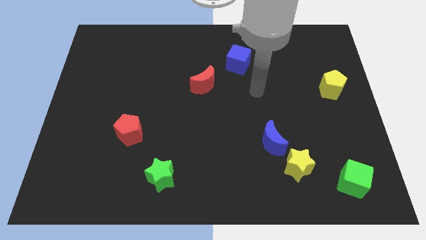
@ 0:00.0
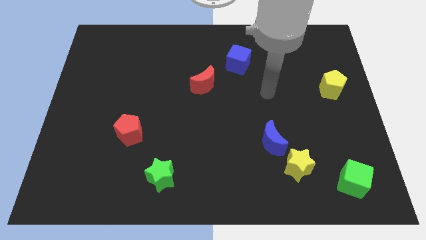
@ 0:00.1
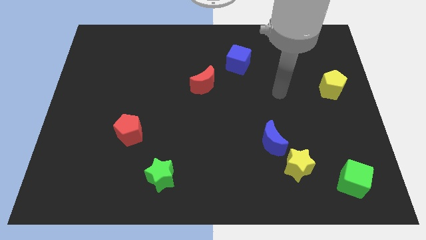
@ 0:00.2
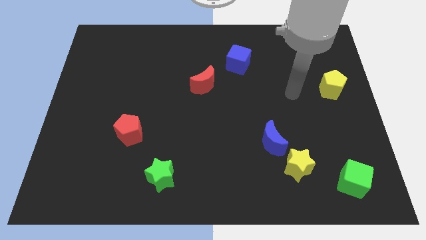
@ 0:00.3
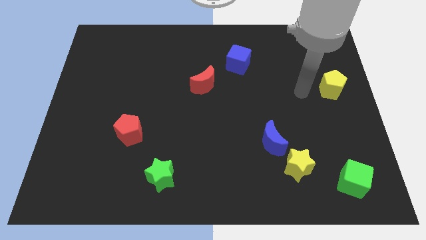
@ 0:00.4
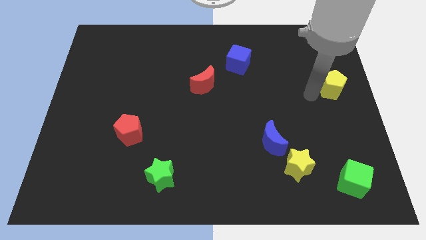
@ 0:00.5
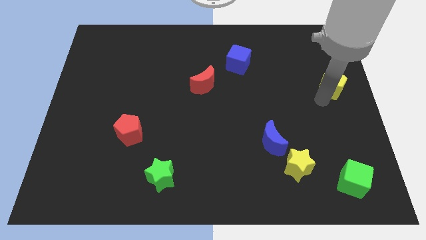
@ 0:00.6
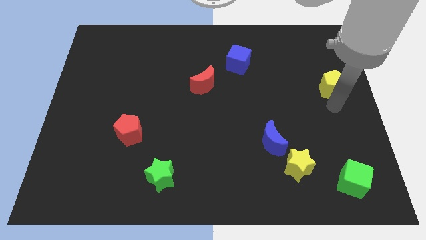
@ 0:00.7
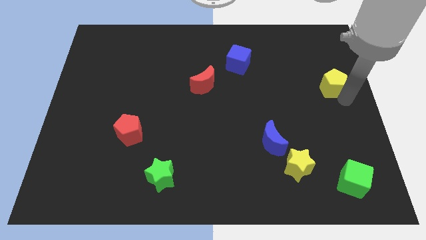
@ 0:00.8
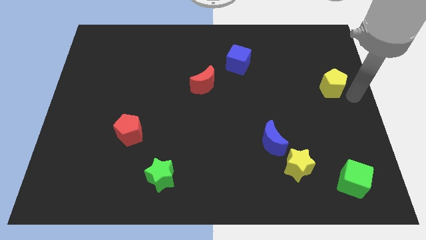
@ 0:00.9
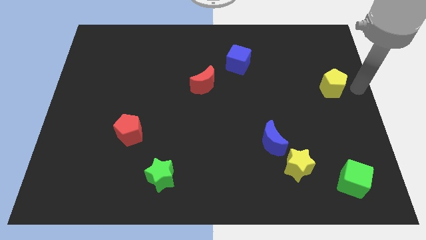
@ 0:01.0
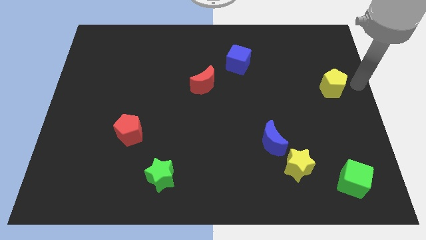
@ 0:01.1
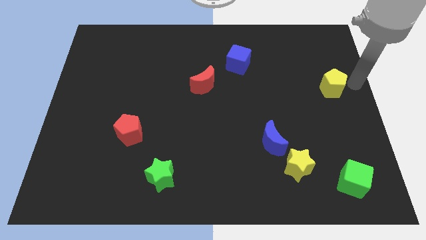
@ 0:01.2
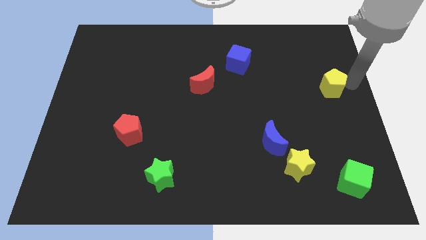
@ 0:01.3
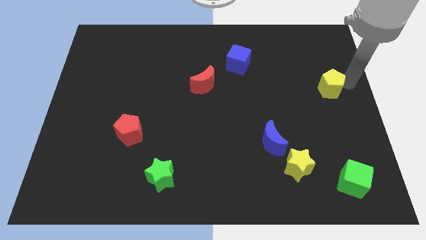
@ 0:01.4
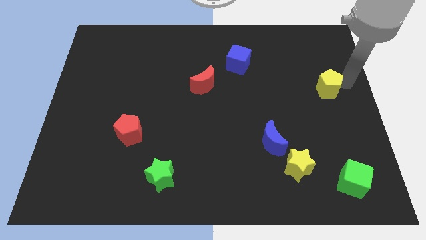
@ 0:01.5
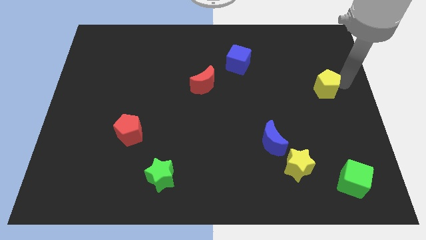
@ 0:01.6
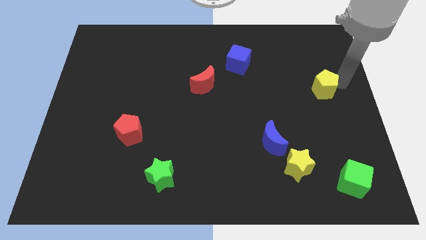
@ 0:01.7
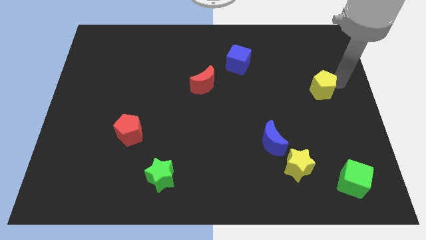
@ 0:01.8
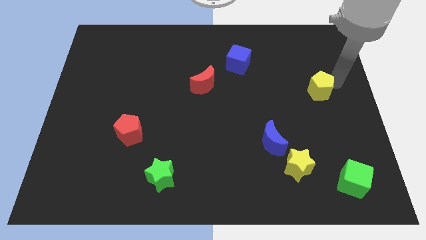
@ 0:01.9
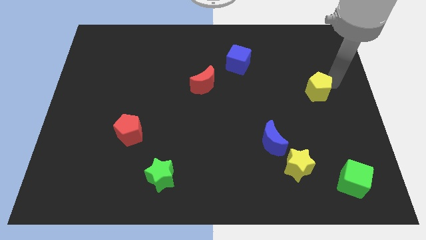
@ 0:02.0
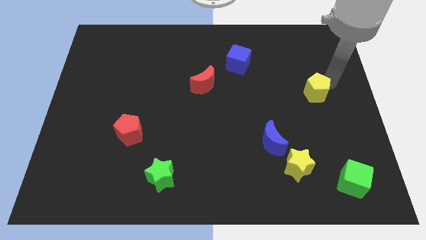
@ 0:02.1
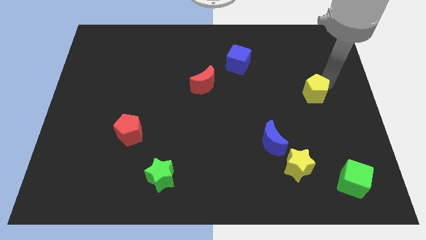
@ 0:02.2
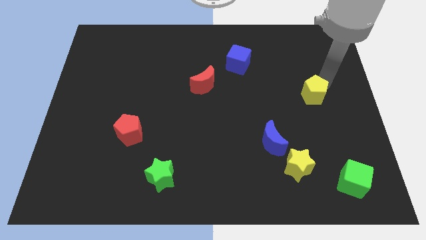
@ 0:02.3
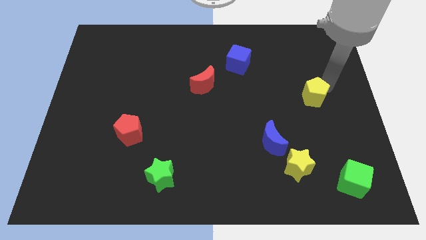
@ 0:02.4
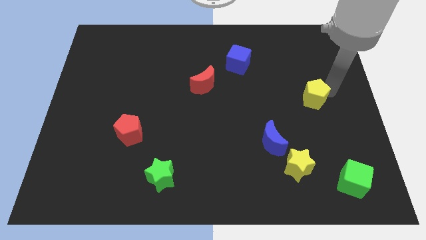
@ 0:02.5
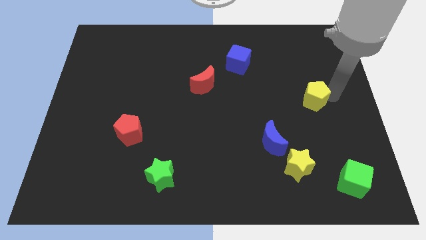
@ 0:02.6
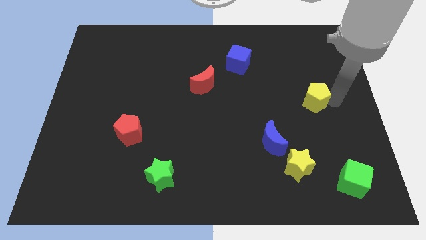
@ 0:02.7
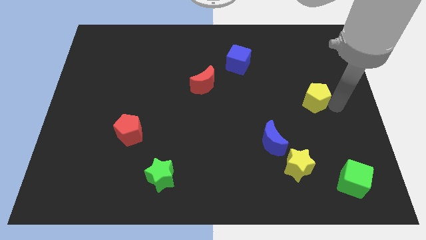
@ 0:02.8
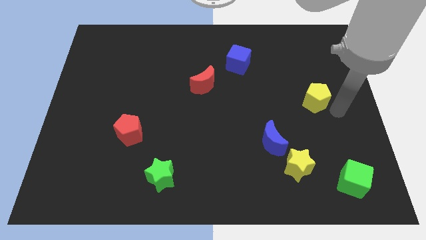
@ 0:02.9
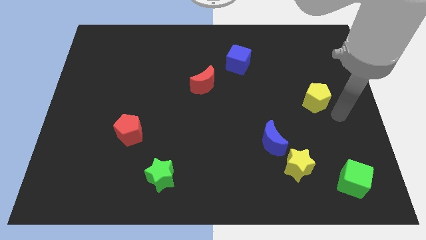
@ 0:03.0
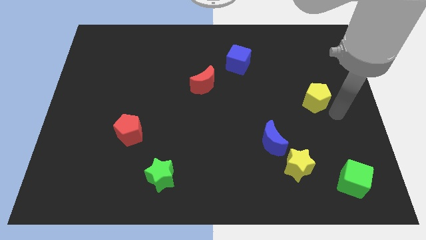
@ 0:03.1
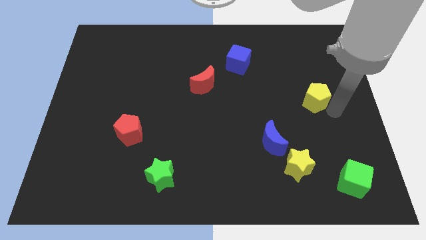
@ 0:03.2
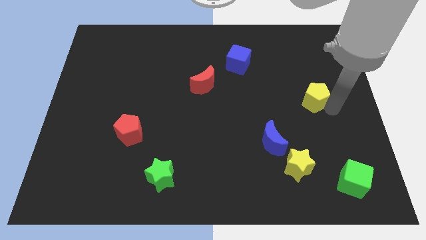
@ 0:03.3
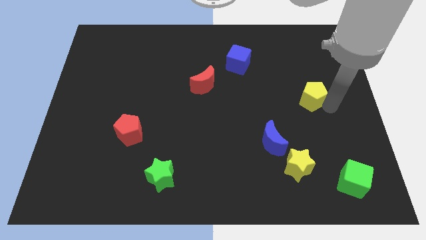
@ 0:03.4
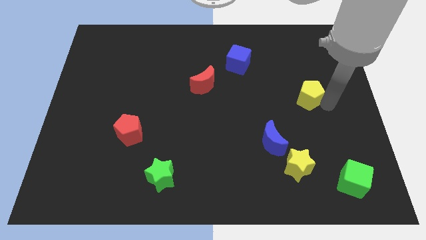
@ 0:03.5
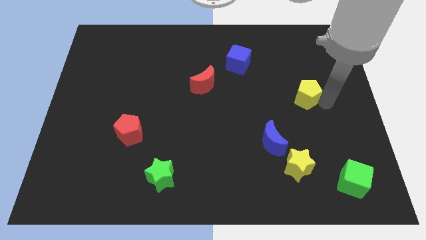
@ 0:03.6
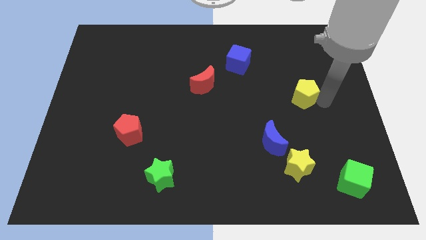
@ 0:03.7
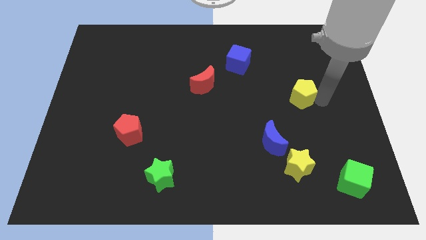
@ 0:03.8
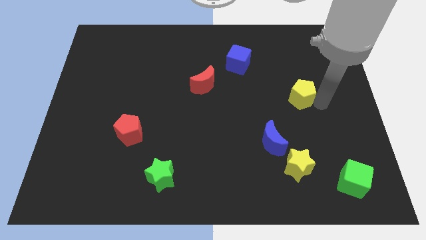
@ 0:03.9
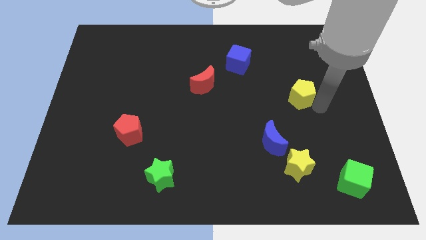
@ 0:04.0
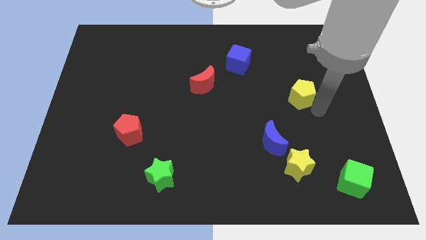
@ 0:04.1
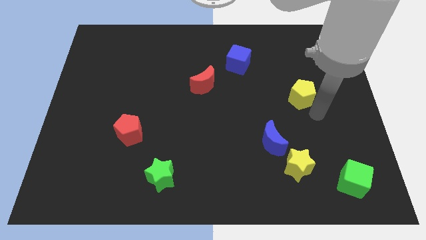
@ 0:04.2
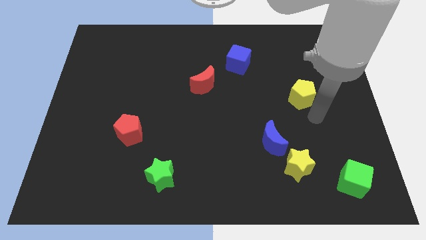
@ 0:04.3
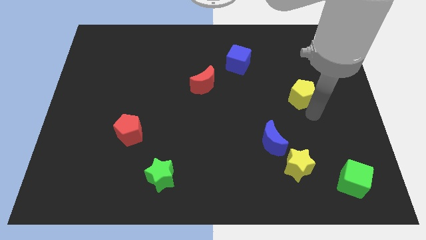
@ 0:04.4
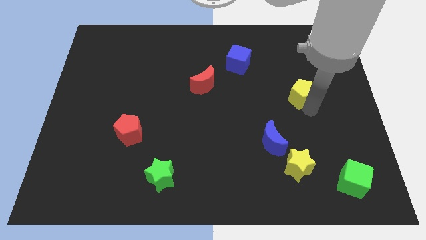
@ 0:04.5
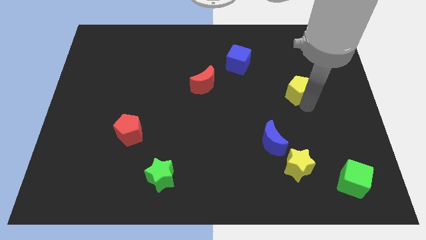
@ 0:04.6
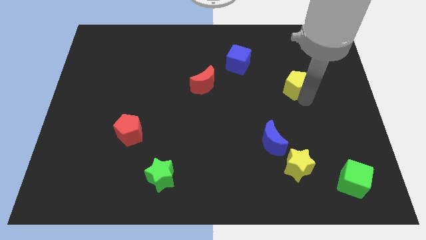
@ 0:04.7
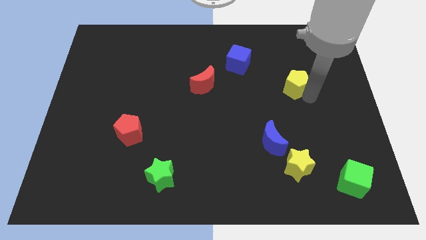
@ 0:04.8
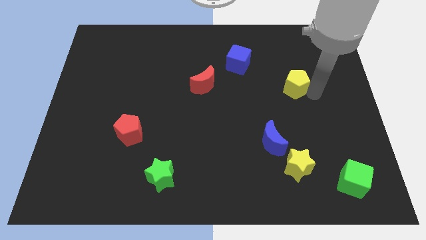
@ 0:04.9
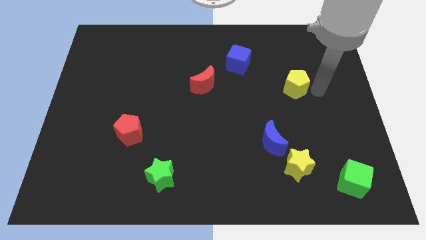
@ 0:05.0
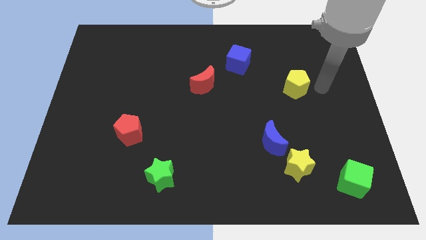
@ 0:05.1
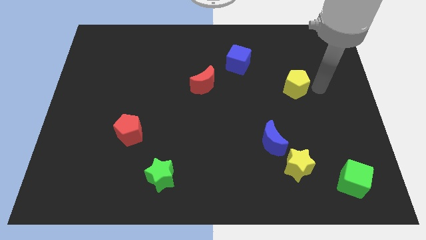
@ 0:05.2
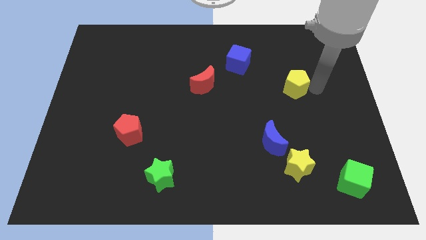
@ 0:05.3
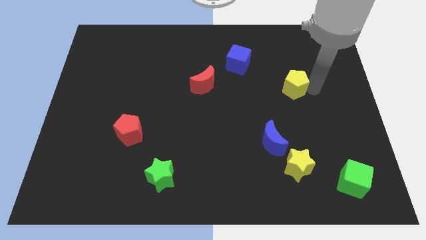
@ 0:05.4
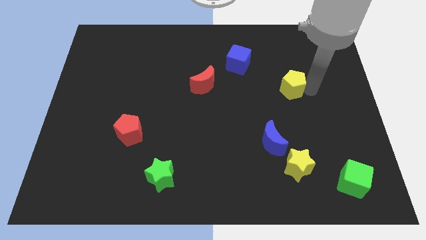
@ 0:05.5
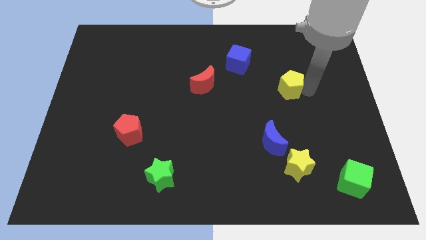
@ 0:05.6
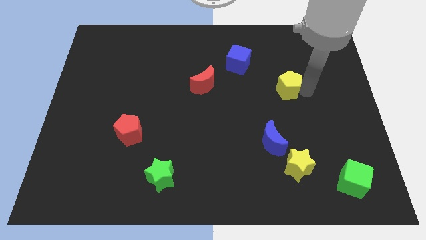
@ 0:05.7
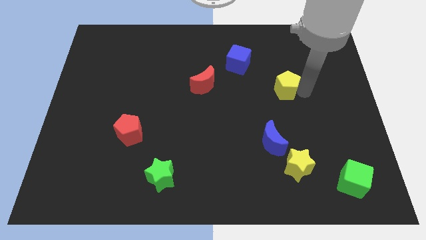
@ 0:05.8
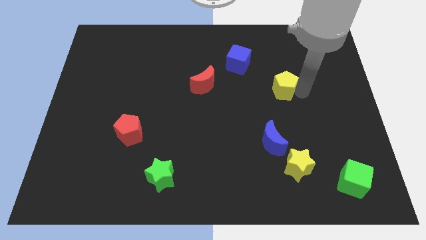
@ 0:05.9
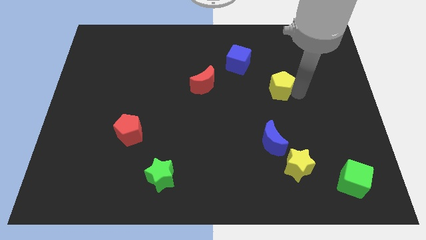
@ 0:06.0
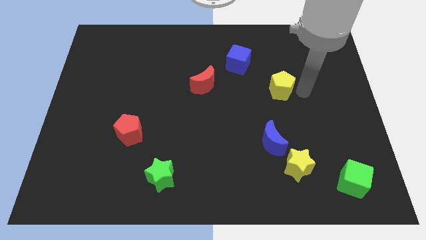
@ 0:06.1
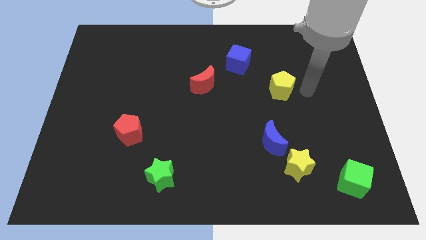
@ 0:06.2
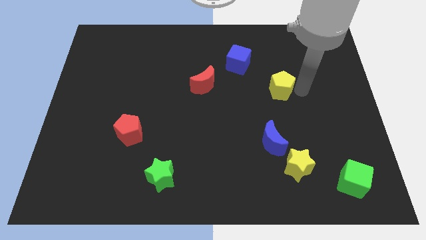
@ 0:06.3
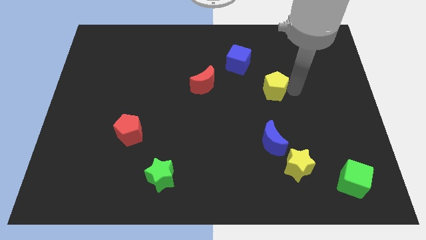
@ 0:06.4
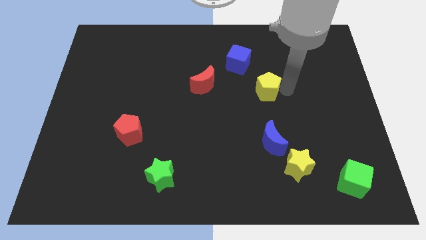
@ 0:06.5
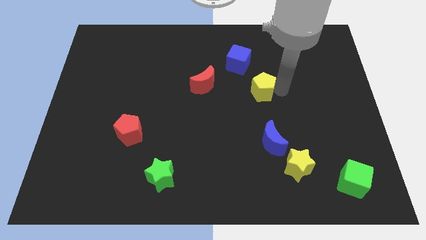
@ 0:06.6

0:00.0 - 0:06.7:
slide the yellow pentagon to the middle of the board
